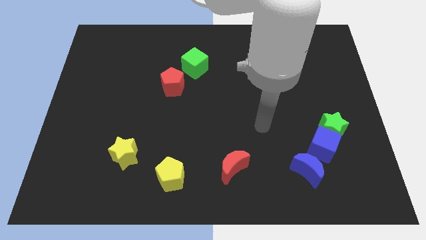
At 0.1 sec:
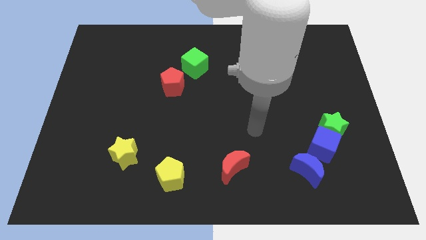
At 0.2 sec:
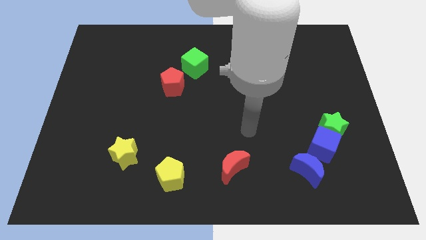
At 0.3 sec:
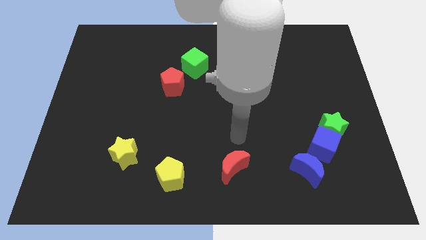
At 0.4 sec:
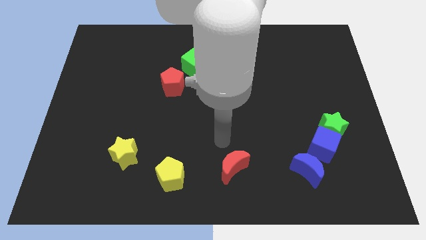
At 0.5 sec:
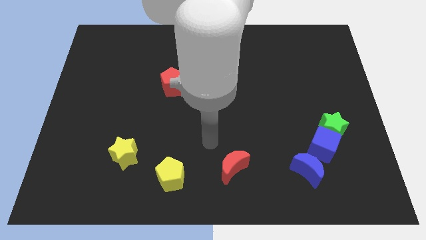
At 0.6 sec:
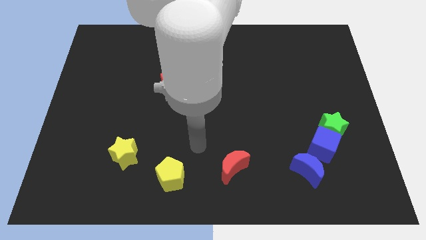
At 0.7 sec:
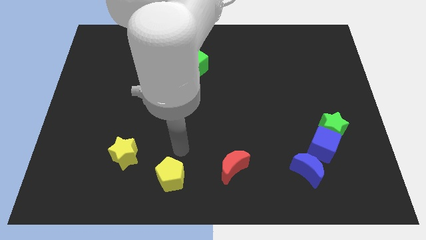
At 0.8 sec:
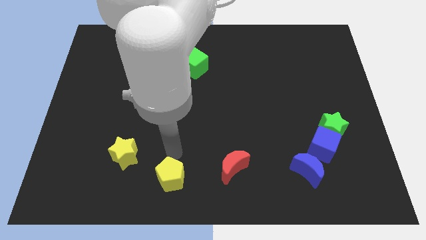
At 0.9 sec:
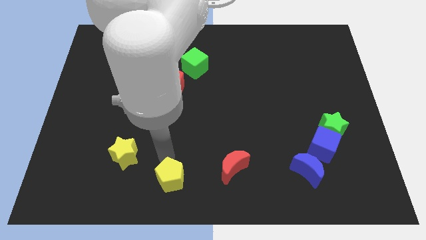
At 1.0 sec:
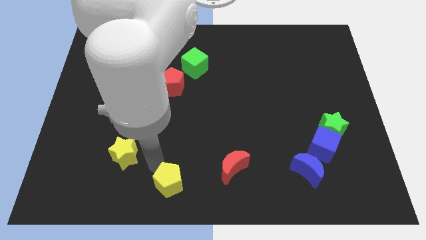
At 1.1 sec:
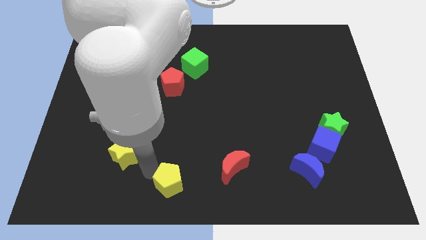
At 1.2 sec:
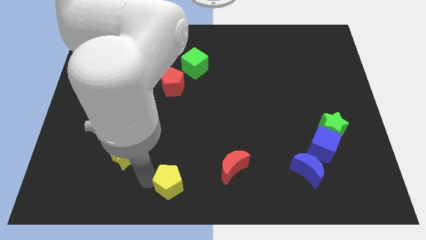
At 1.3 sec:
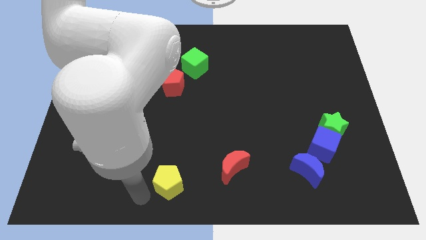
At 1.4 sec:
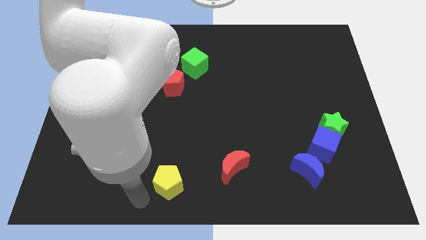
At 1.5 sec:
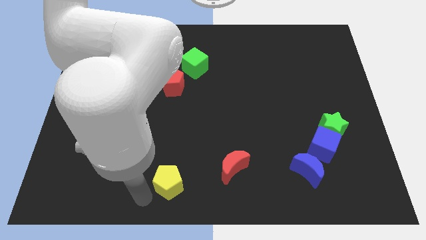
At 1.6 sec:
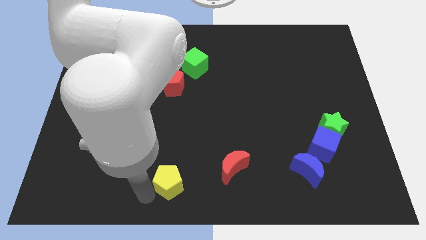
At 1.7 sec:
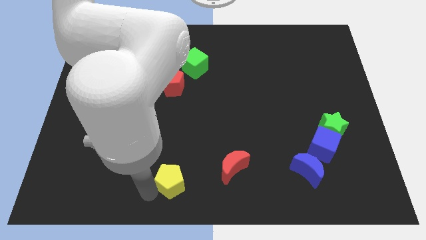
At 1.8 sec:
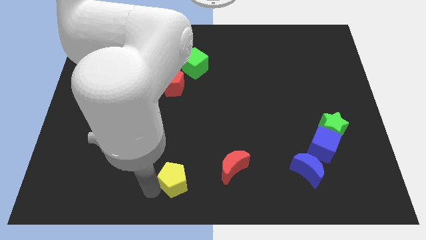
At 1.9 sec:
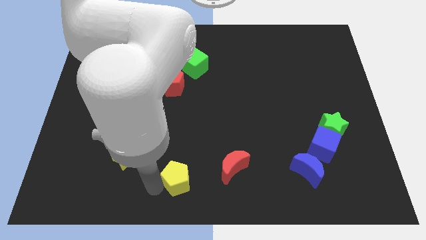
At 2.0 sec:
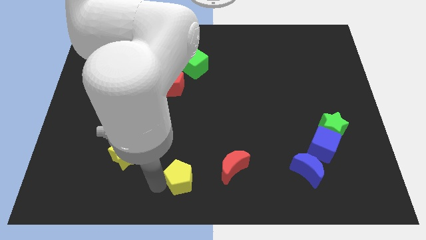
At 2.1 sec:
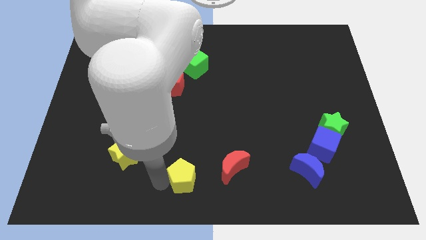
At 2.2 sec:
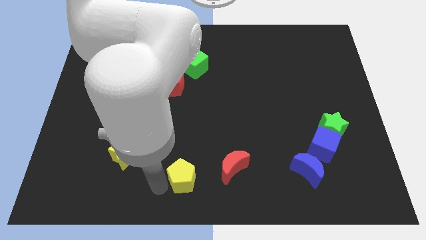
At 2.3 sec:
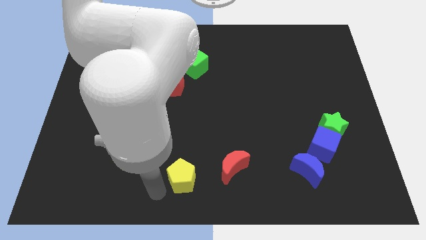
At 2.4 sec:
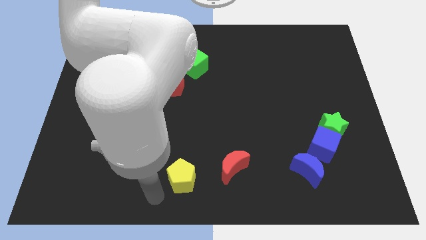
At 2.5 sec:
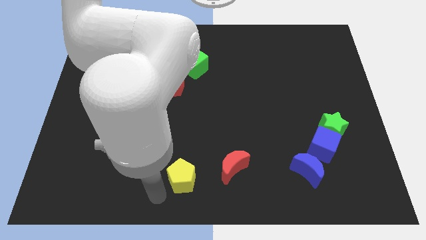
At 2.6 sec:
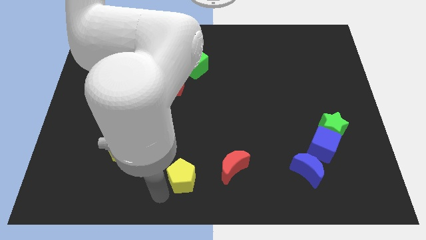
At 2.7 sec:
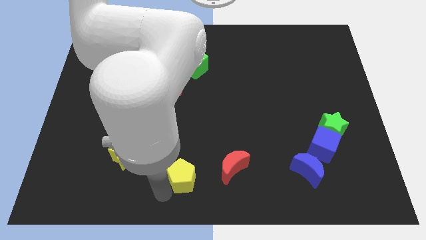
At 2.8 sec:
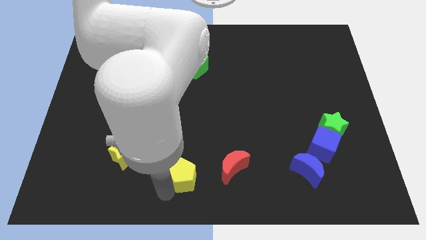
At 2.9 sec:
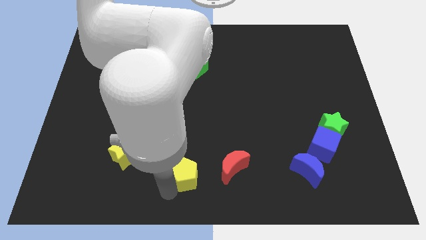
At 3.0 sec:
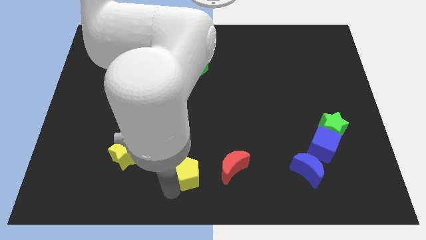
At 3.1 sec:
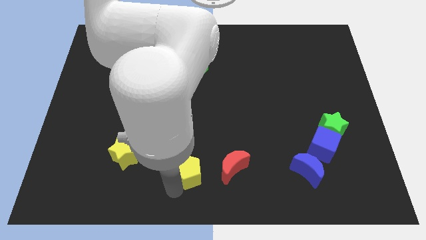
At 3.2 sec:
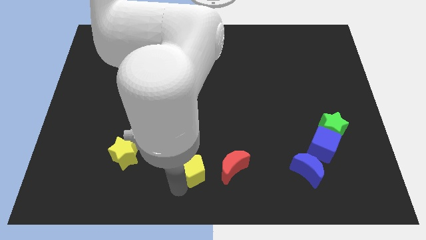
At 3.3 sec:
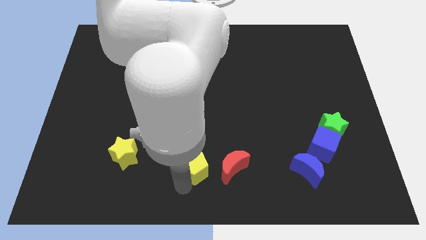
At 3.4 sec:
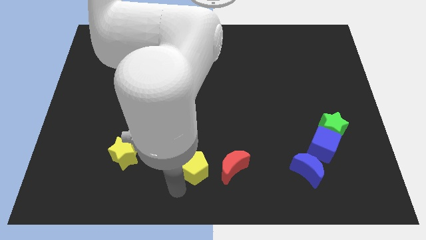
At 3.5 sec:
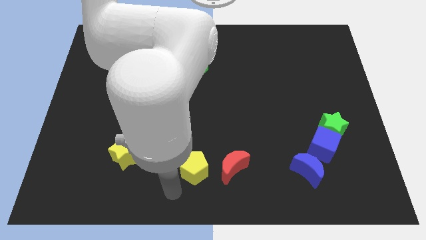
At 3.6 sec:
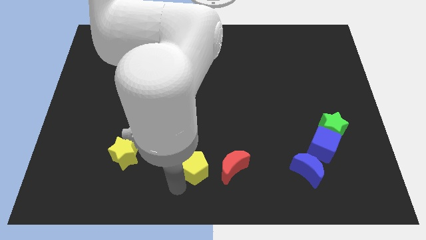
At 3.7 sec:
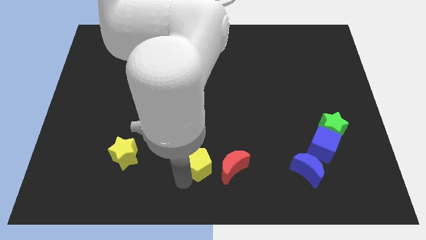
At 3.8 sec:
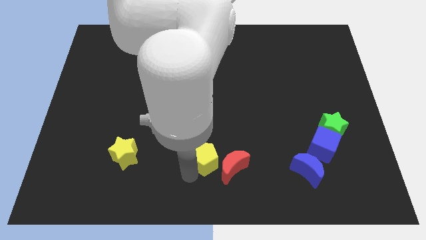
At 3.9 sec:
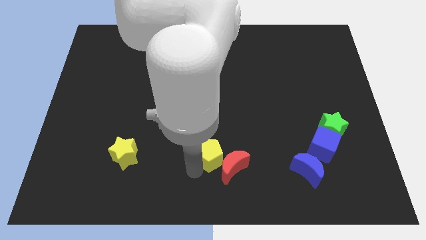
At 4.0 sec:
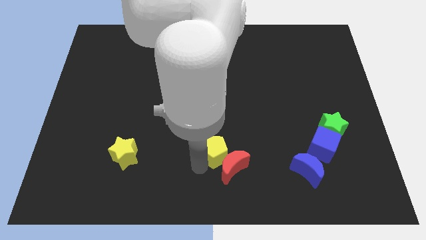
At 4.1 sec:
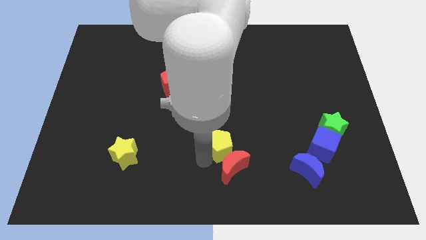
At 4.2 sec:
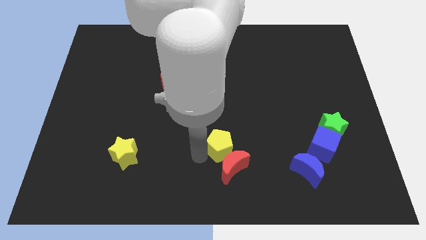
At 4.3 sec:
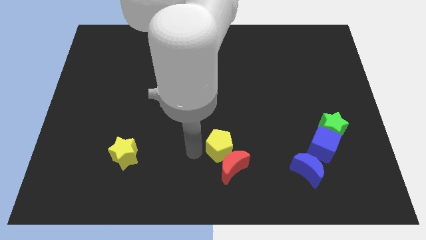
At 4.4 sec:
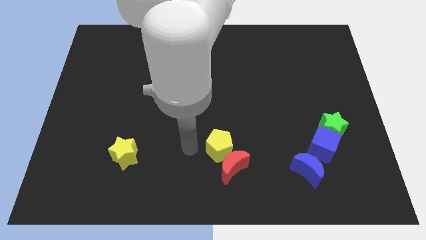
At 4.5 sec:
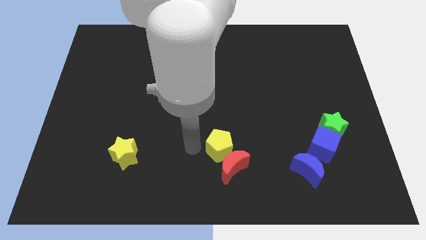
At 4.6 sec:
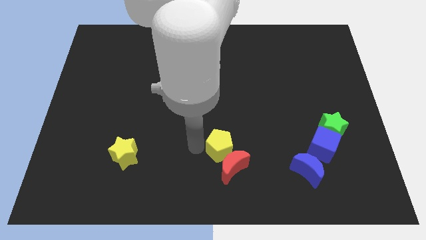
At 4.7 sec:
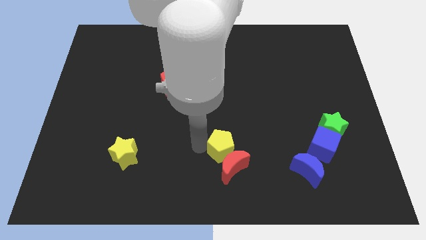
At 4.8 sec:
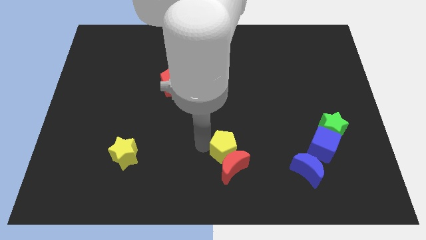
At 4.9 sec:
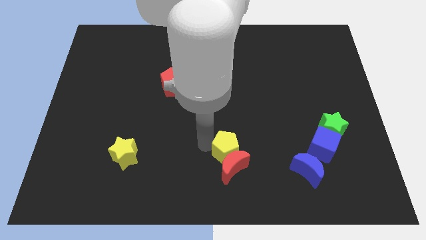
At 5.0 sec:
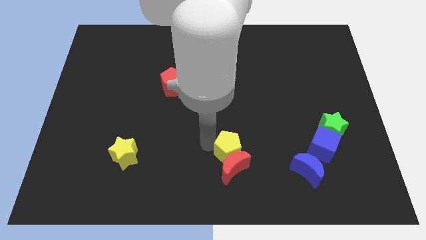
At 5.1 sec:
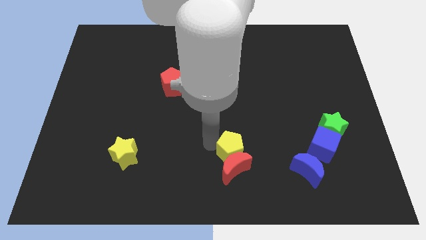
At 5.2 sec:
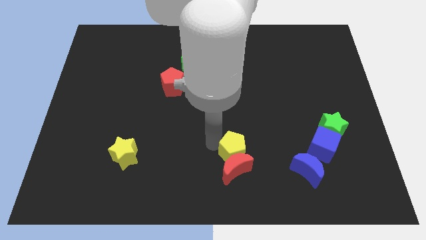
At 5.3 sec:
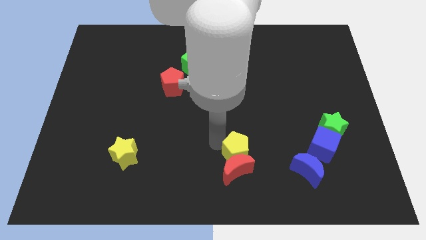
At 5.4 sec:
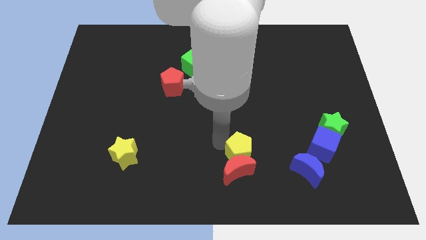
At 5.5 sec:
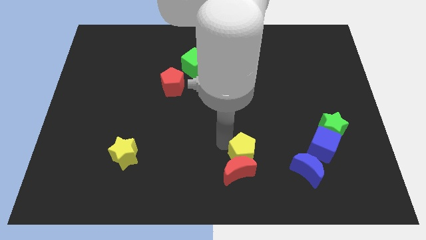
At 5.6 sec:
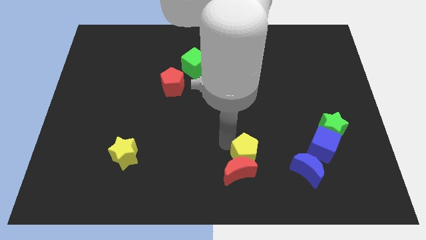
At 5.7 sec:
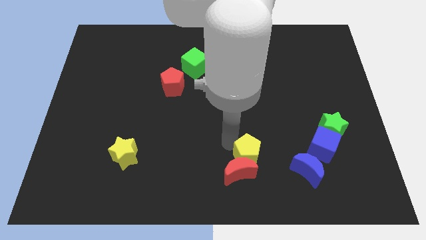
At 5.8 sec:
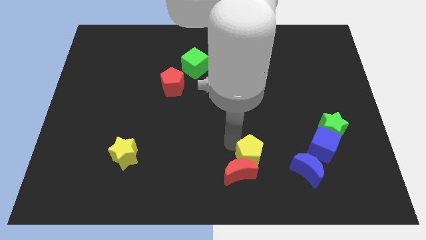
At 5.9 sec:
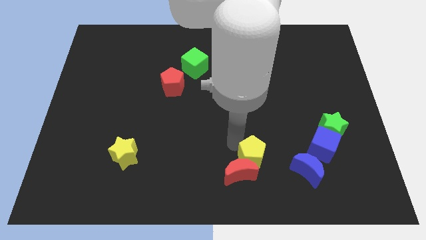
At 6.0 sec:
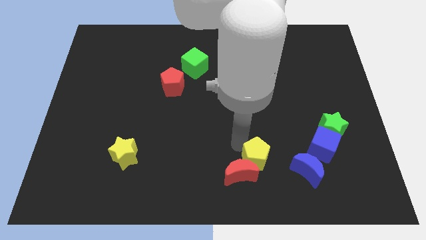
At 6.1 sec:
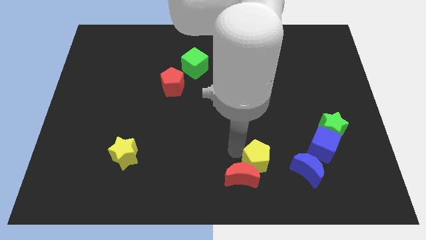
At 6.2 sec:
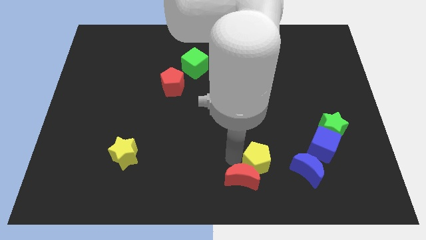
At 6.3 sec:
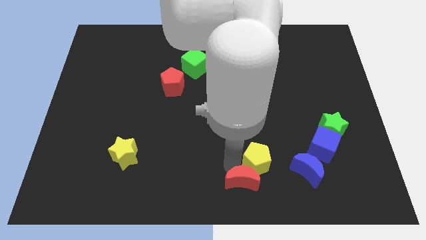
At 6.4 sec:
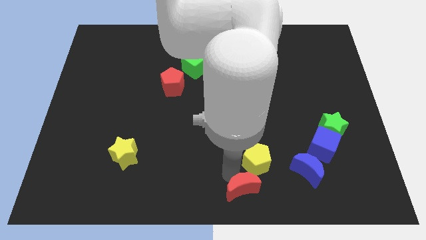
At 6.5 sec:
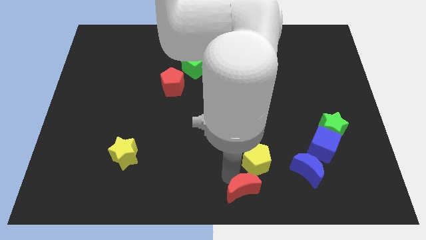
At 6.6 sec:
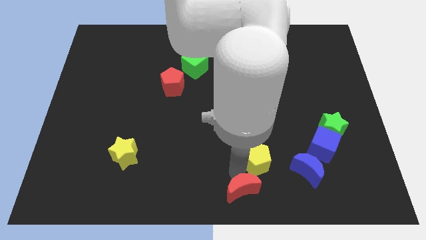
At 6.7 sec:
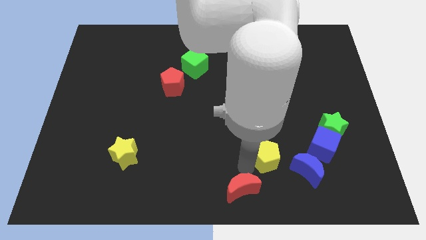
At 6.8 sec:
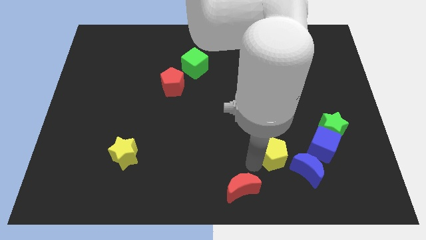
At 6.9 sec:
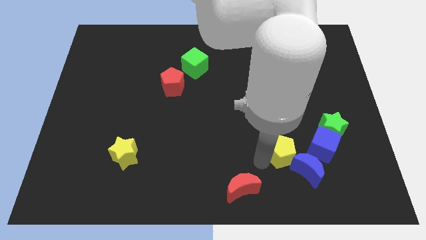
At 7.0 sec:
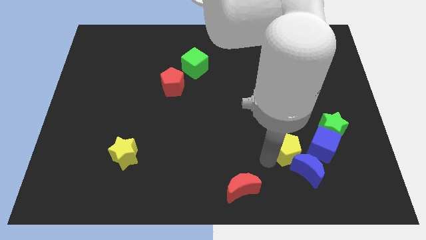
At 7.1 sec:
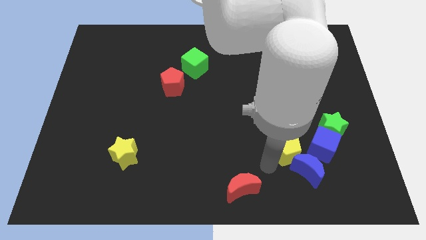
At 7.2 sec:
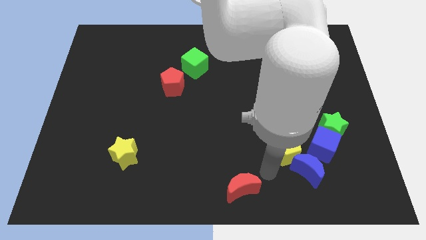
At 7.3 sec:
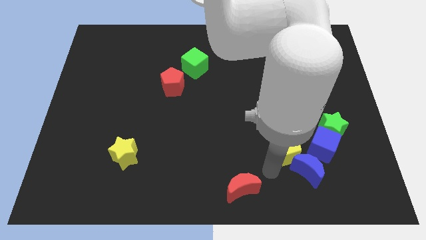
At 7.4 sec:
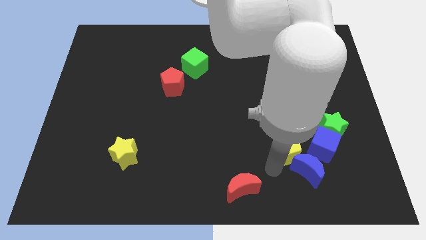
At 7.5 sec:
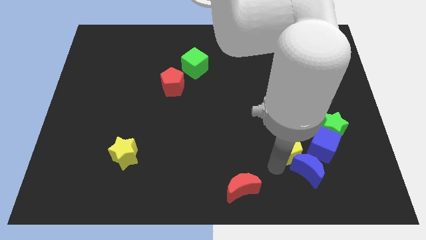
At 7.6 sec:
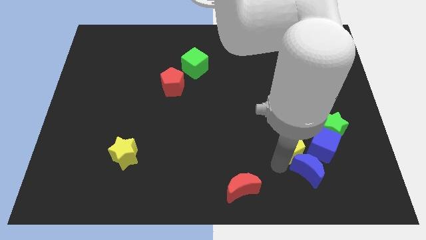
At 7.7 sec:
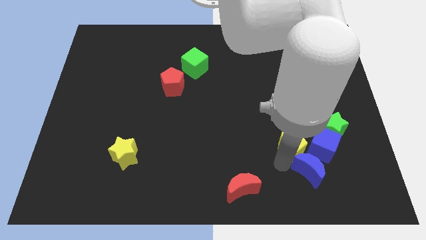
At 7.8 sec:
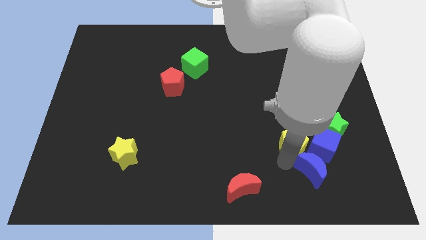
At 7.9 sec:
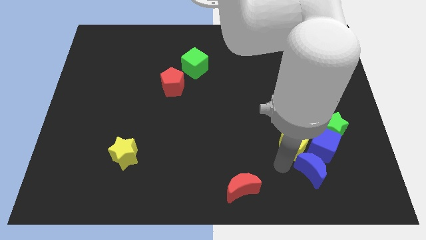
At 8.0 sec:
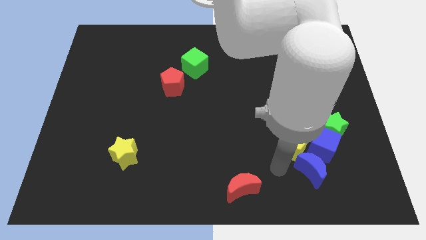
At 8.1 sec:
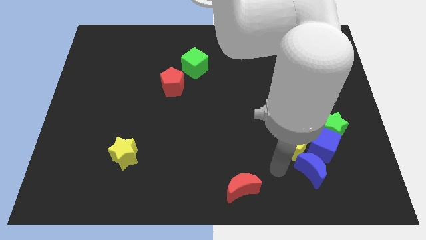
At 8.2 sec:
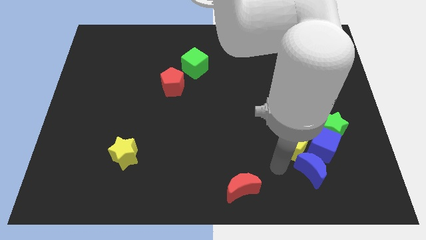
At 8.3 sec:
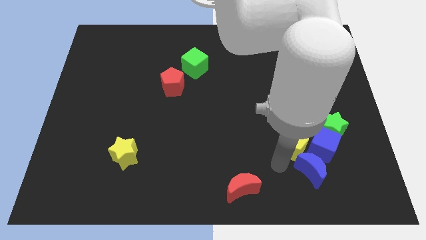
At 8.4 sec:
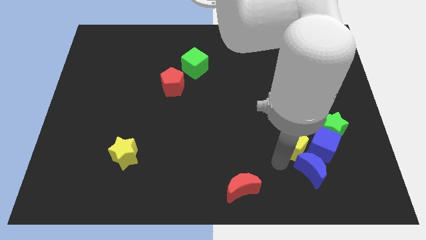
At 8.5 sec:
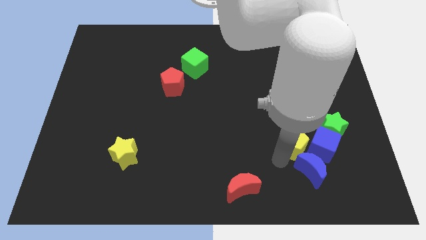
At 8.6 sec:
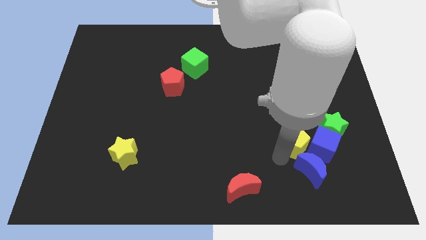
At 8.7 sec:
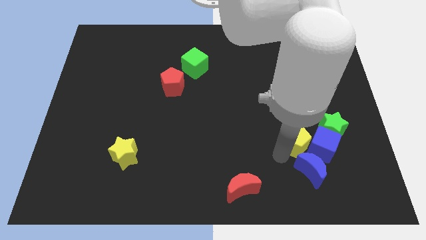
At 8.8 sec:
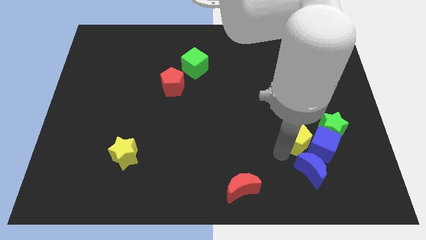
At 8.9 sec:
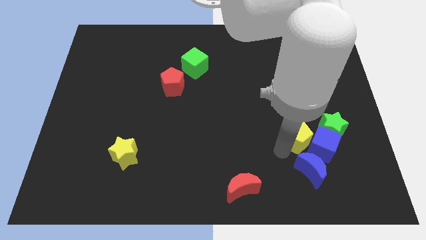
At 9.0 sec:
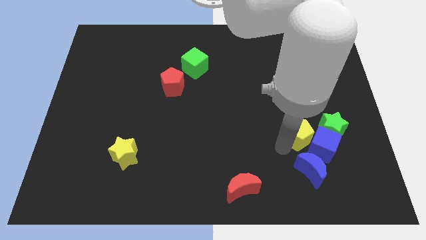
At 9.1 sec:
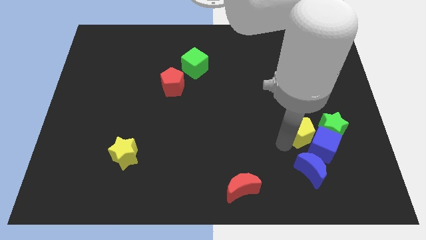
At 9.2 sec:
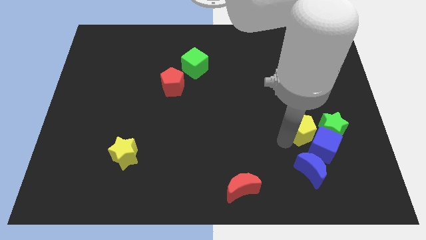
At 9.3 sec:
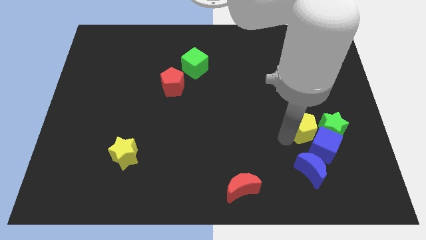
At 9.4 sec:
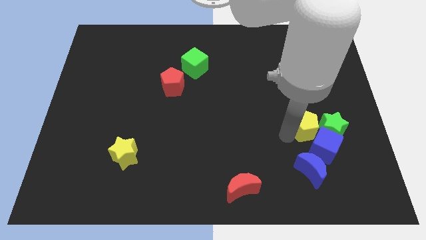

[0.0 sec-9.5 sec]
slide the yellow pentagon to the green star
